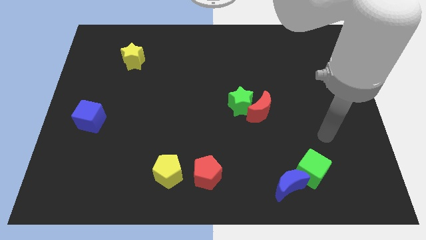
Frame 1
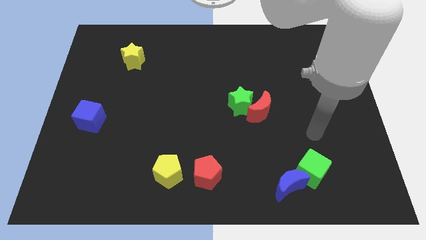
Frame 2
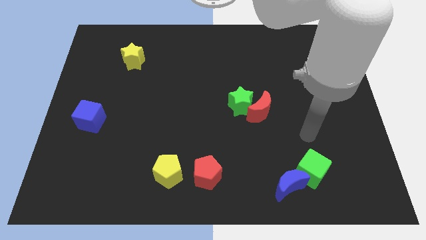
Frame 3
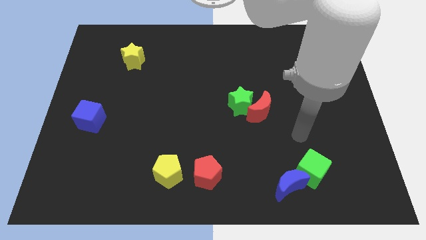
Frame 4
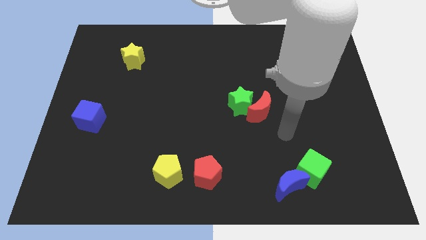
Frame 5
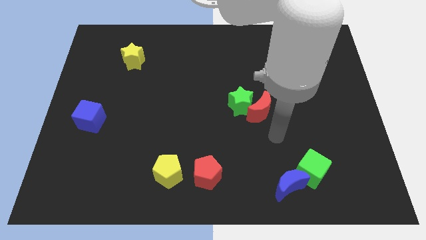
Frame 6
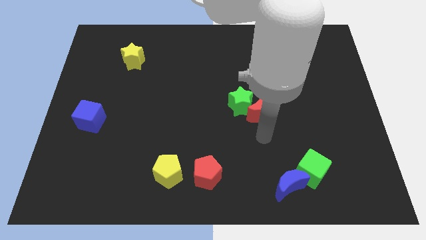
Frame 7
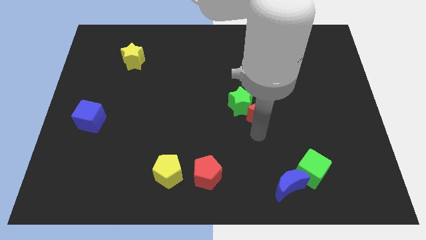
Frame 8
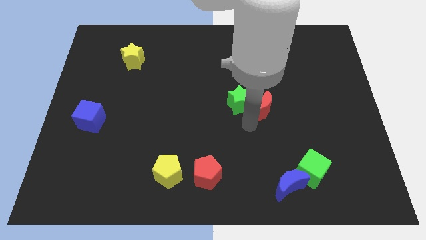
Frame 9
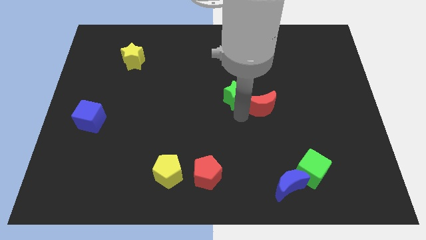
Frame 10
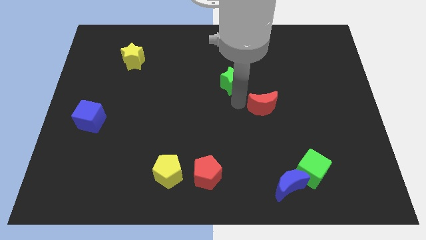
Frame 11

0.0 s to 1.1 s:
separate the red moon from the green star

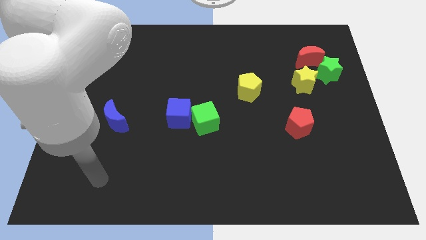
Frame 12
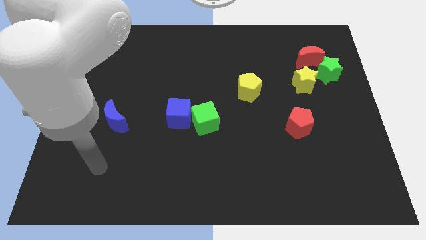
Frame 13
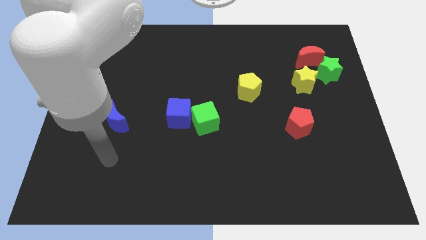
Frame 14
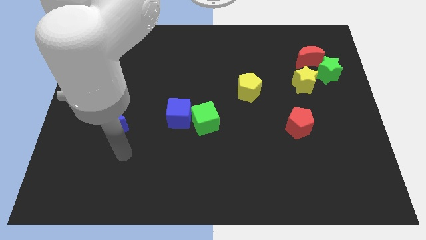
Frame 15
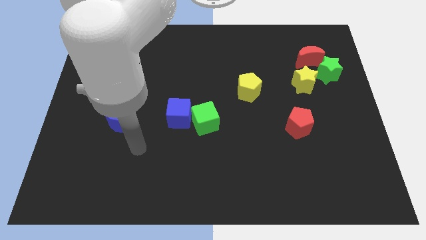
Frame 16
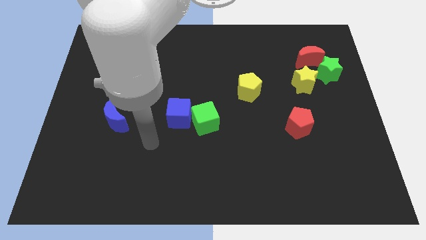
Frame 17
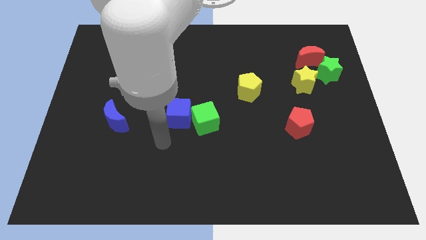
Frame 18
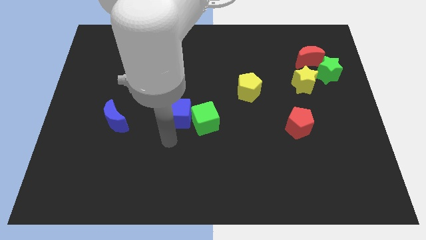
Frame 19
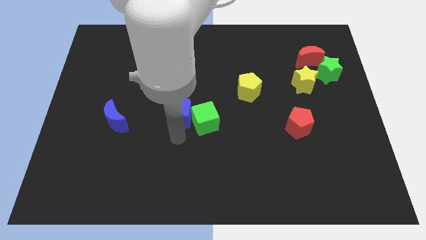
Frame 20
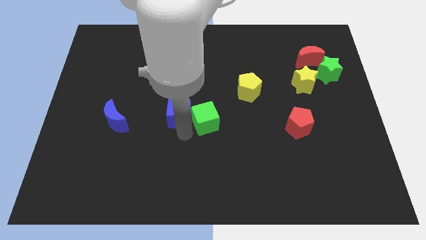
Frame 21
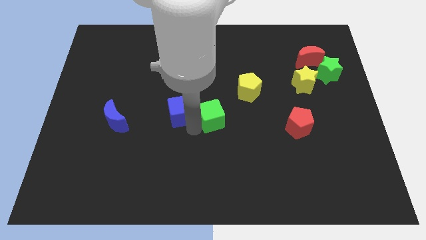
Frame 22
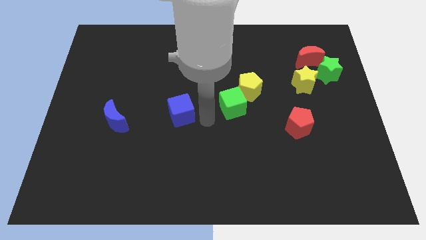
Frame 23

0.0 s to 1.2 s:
pull the blue cube apart from the green cube

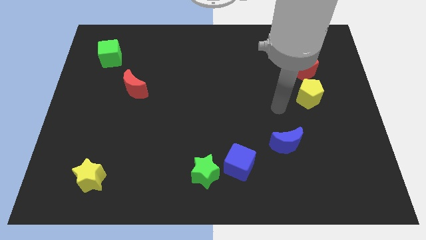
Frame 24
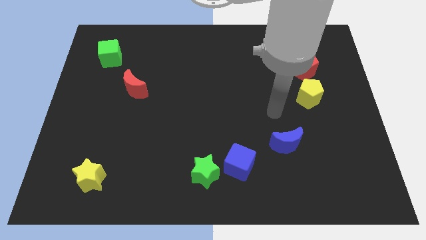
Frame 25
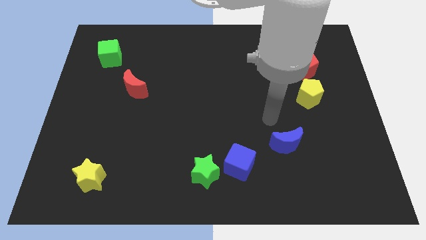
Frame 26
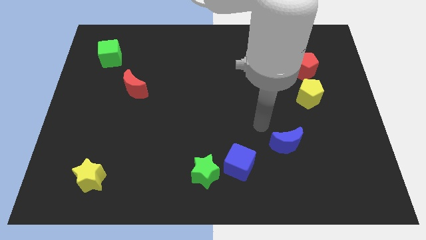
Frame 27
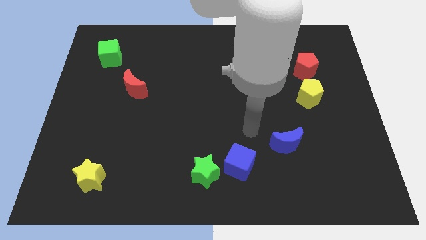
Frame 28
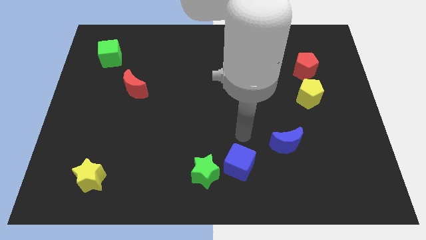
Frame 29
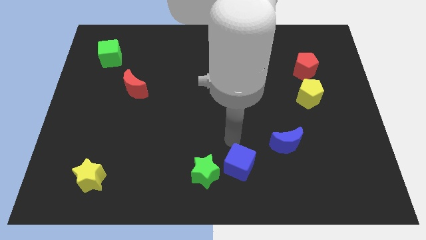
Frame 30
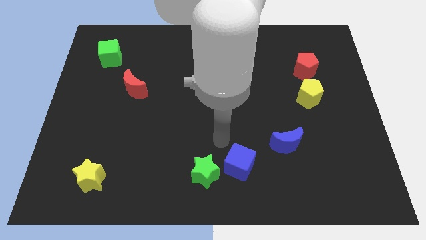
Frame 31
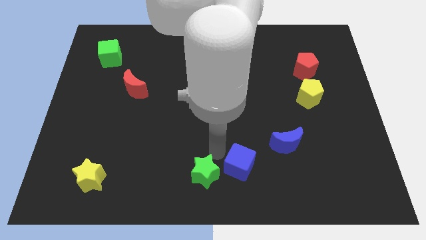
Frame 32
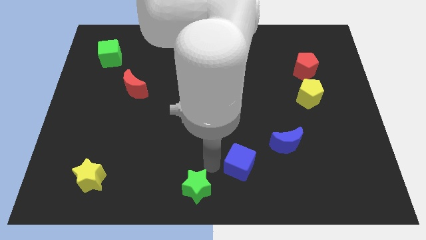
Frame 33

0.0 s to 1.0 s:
separate the blue cube from the green star

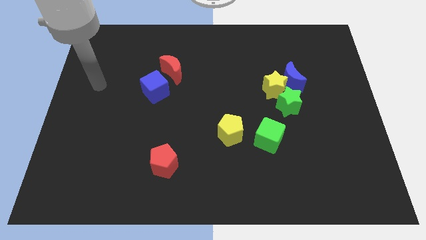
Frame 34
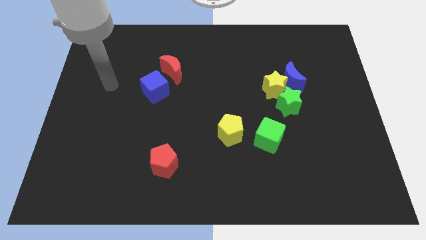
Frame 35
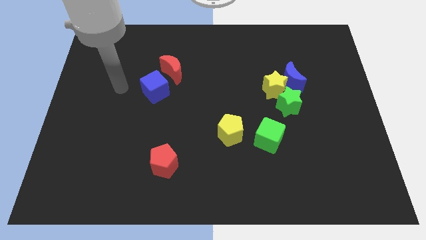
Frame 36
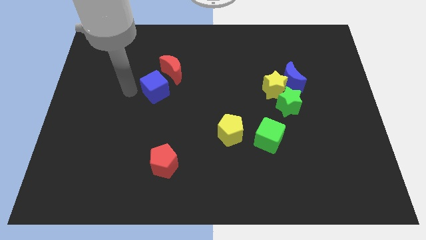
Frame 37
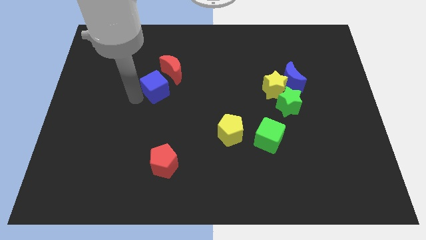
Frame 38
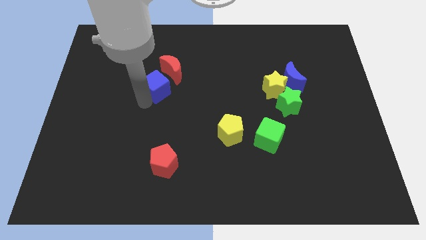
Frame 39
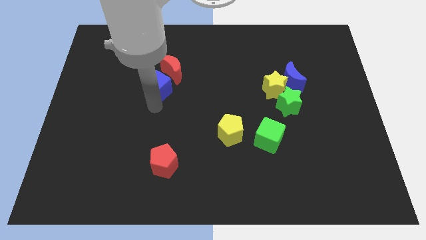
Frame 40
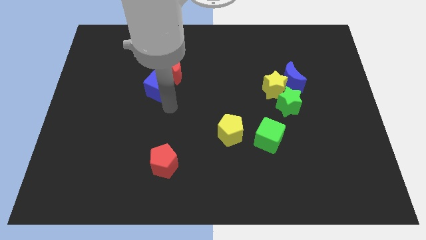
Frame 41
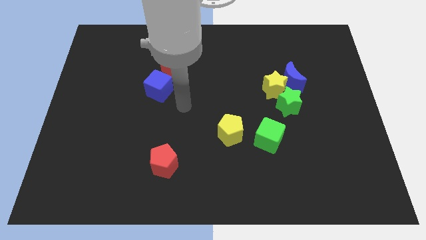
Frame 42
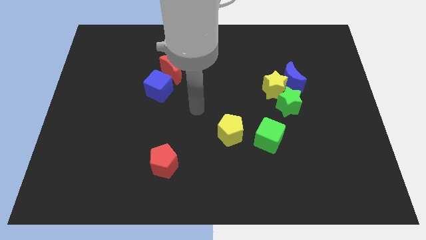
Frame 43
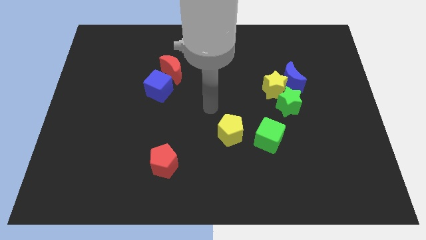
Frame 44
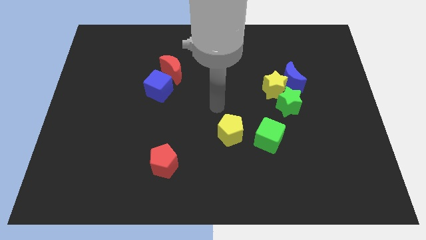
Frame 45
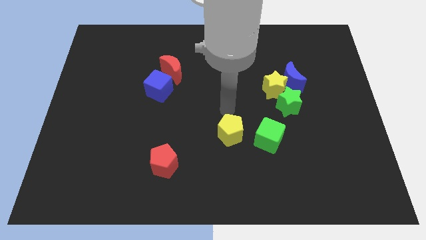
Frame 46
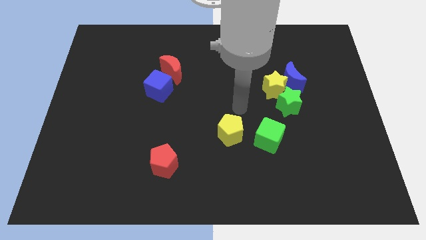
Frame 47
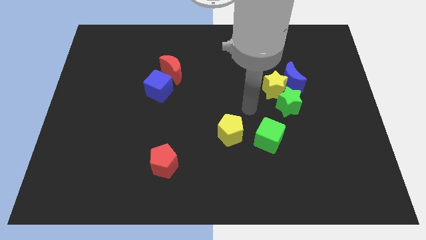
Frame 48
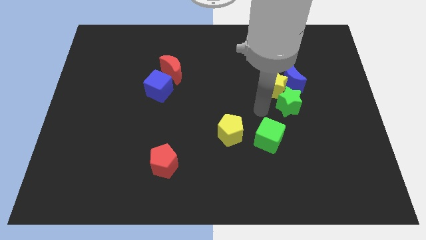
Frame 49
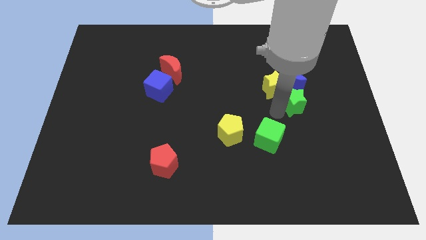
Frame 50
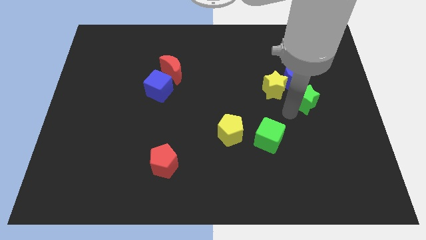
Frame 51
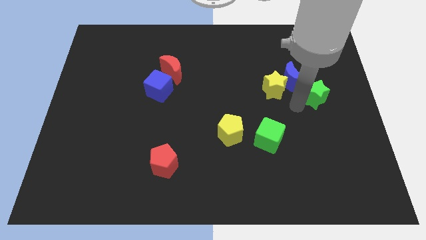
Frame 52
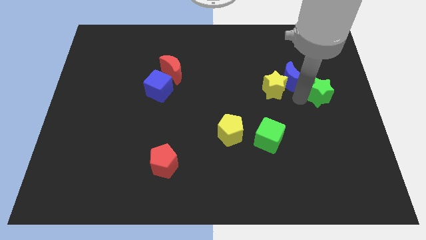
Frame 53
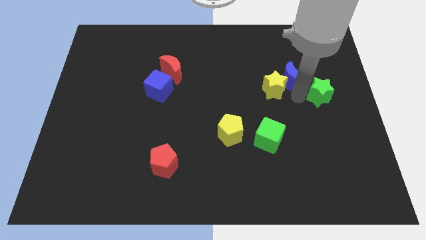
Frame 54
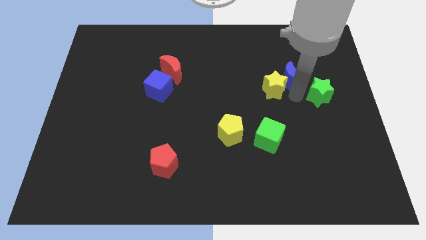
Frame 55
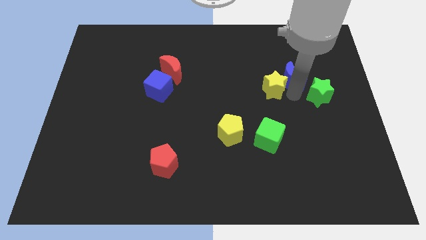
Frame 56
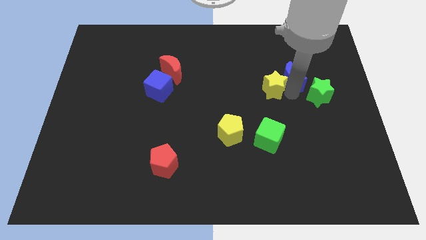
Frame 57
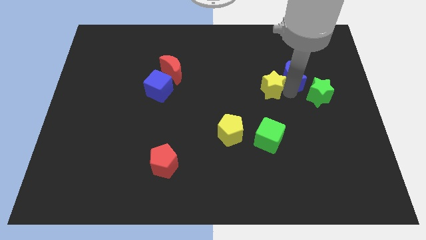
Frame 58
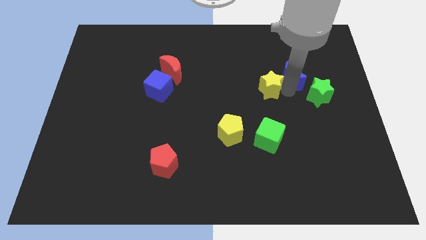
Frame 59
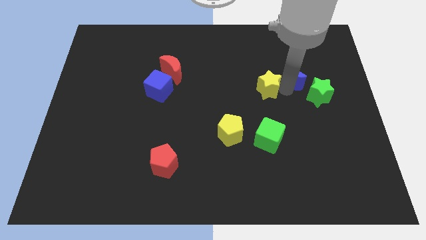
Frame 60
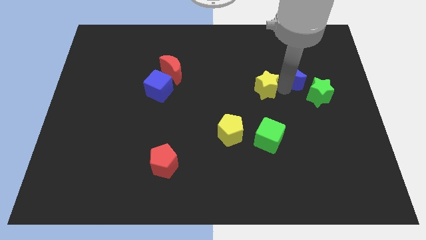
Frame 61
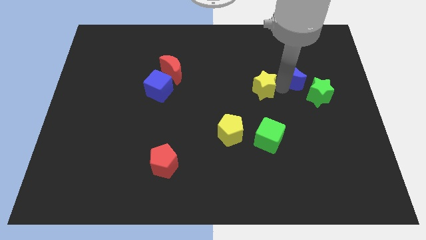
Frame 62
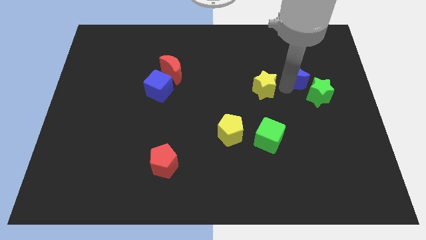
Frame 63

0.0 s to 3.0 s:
pull the yellow star apart from the blue moon and green star

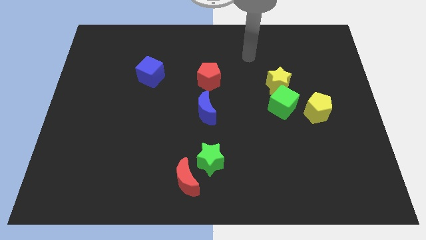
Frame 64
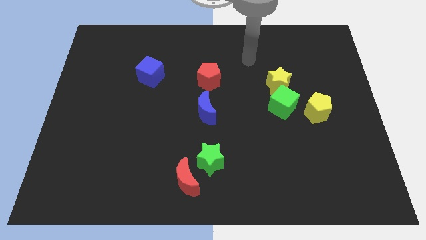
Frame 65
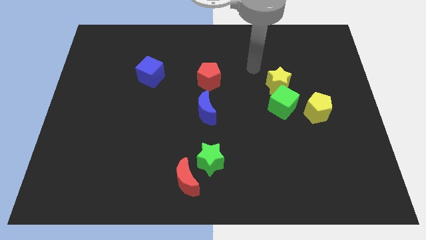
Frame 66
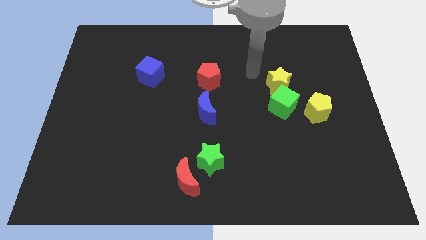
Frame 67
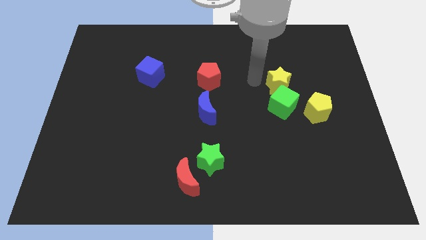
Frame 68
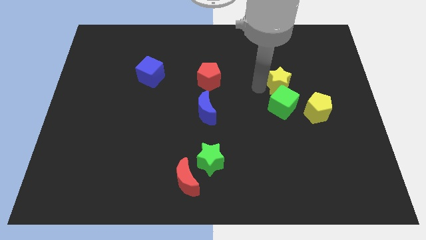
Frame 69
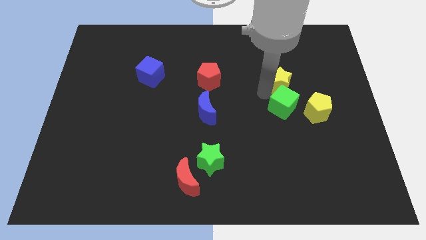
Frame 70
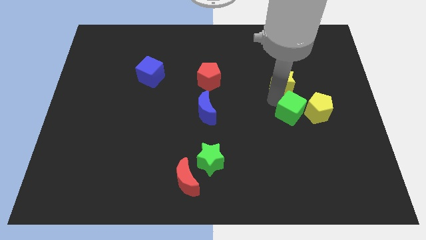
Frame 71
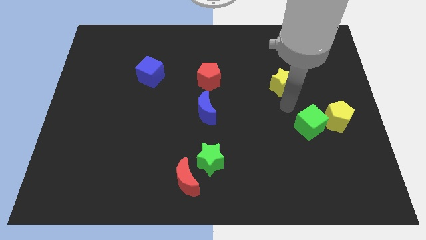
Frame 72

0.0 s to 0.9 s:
pull the yellow star apart from the green cube

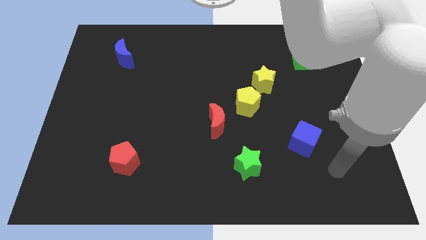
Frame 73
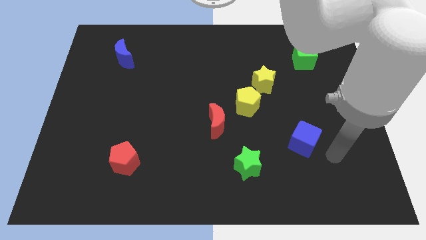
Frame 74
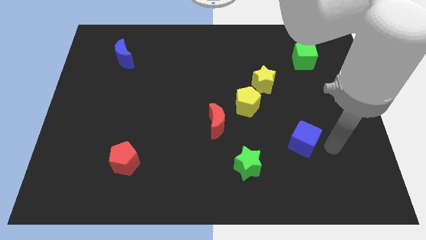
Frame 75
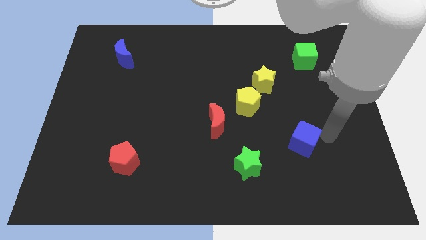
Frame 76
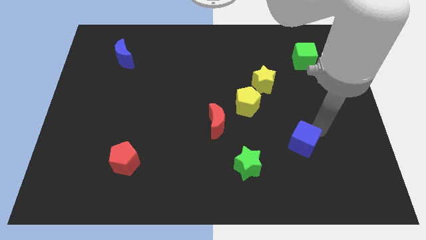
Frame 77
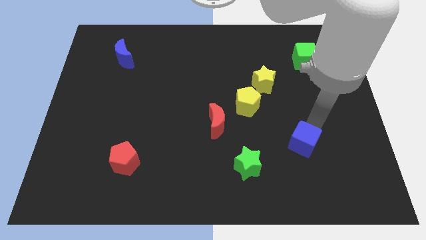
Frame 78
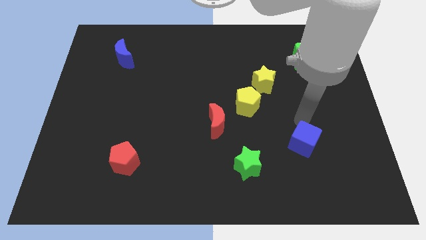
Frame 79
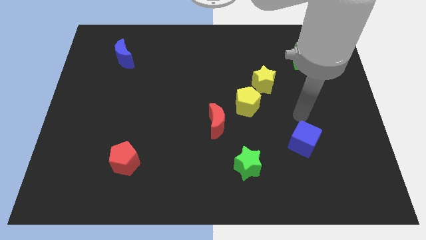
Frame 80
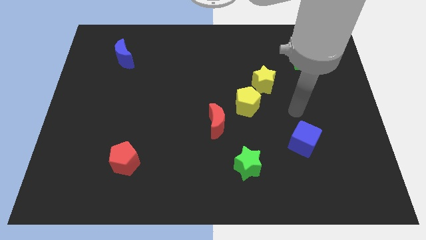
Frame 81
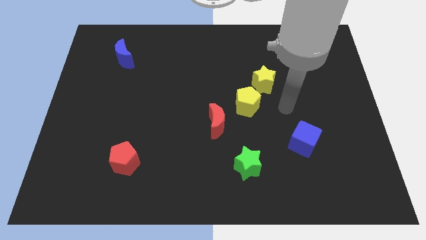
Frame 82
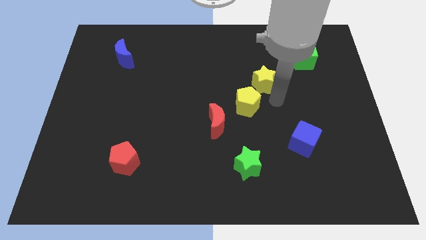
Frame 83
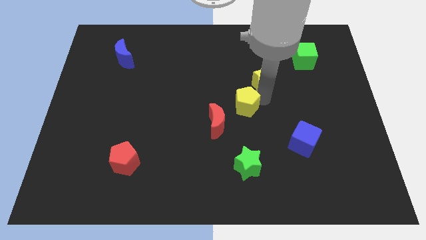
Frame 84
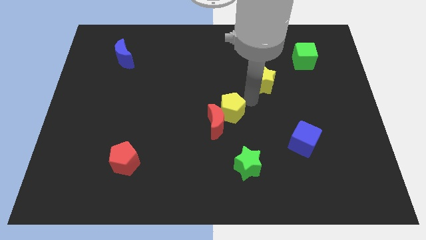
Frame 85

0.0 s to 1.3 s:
pull the yellow star apart from the yellow pentagon

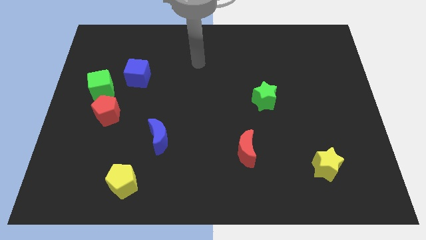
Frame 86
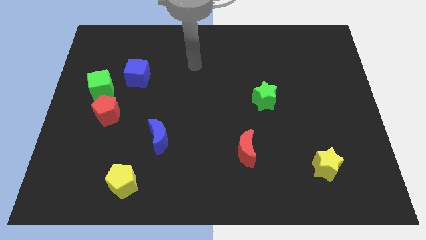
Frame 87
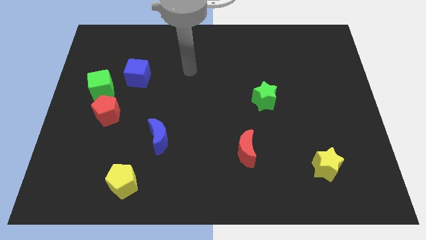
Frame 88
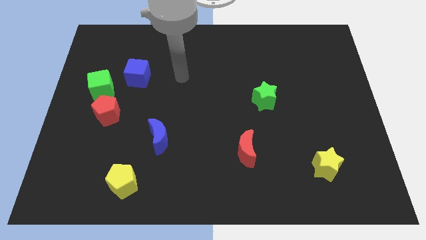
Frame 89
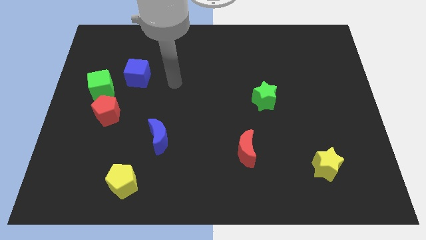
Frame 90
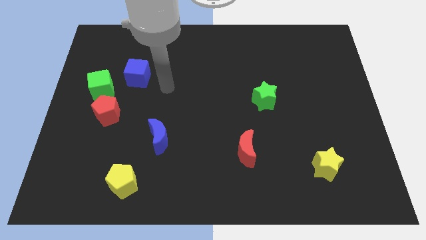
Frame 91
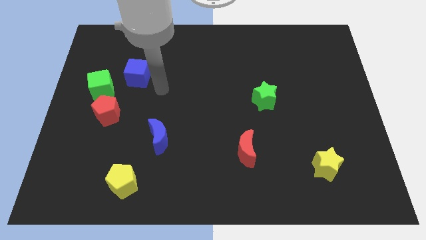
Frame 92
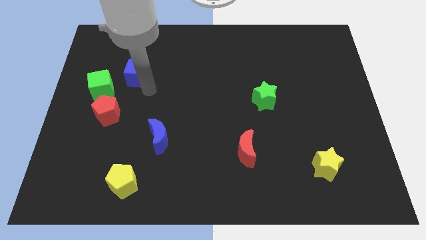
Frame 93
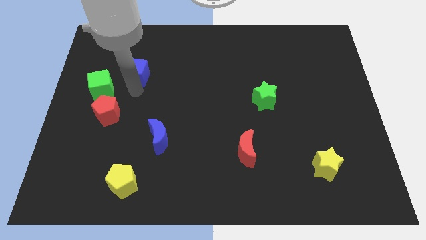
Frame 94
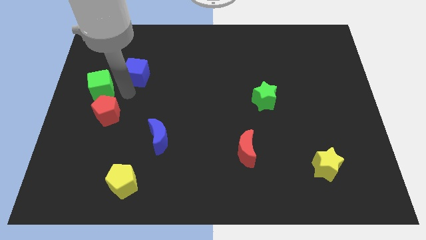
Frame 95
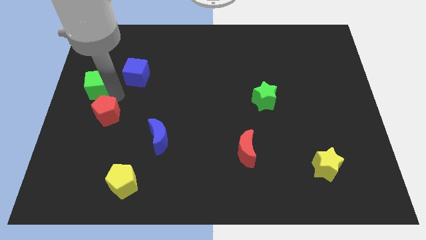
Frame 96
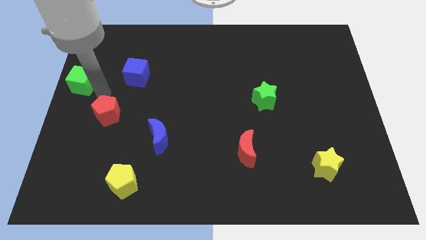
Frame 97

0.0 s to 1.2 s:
pull the red pentagon apart from the green cube
